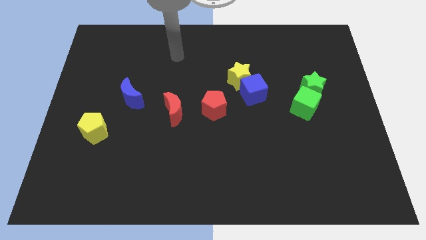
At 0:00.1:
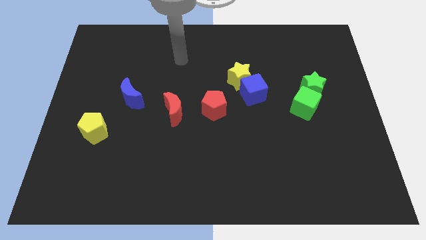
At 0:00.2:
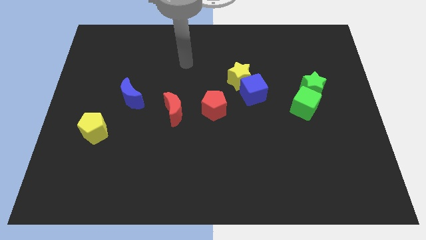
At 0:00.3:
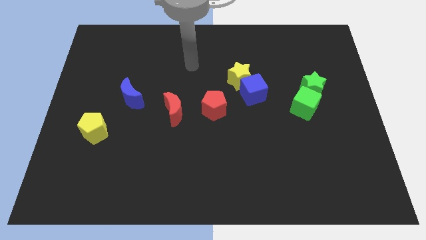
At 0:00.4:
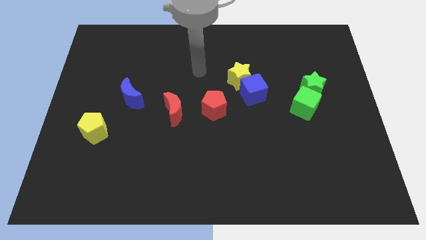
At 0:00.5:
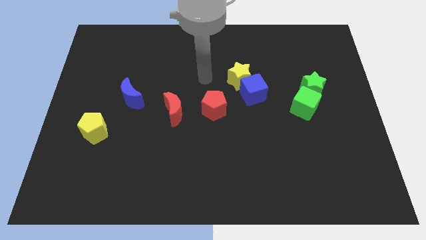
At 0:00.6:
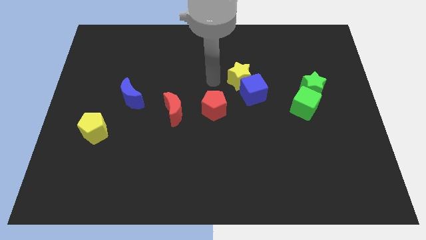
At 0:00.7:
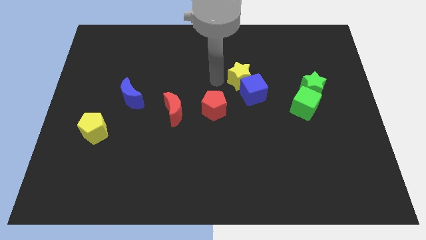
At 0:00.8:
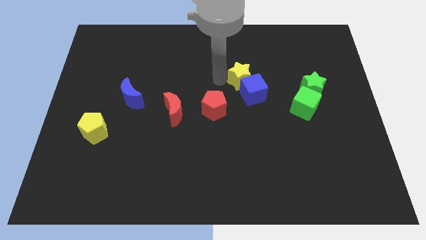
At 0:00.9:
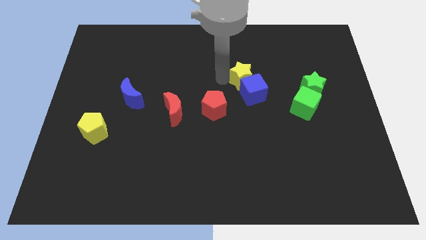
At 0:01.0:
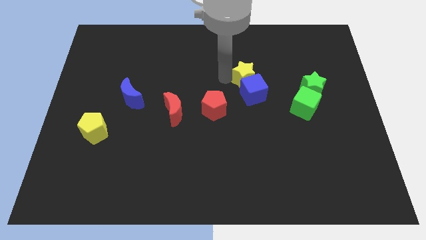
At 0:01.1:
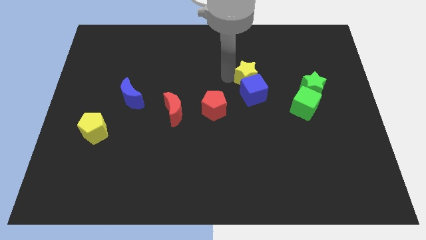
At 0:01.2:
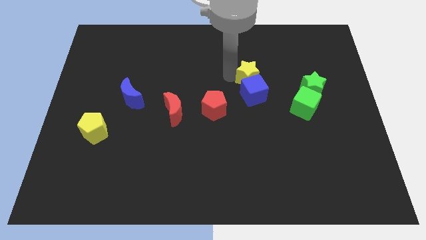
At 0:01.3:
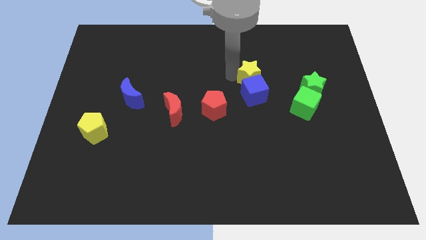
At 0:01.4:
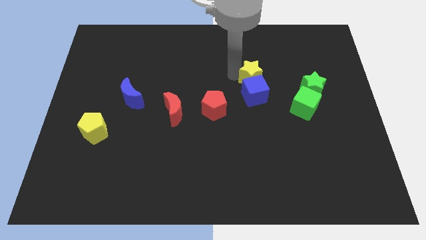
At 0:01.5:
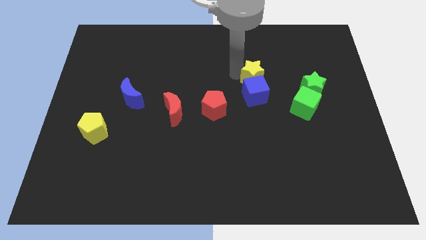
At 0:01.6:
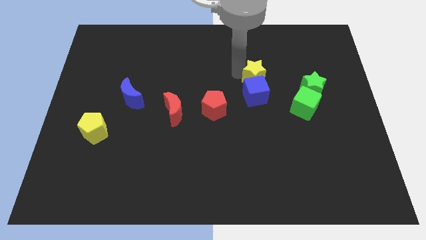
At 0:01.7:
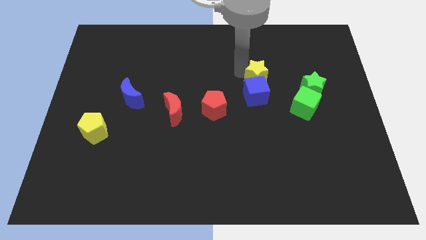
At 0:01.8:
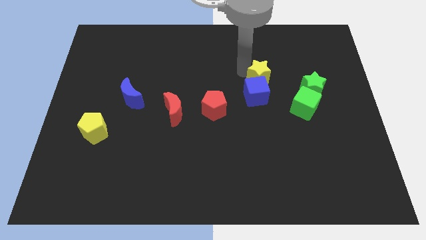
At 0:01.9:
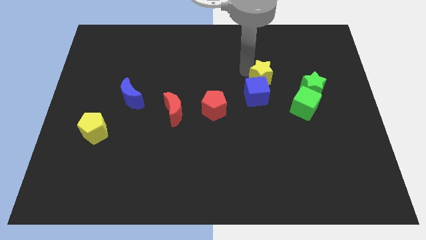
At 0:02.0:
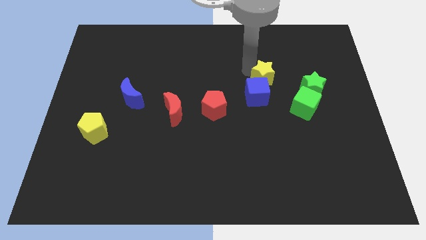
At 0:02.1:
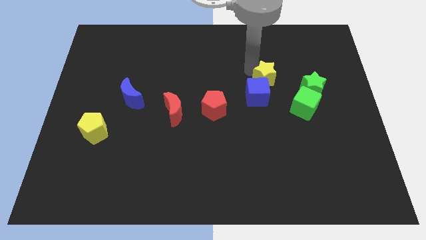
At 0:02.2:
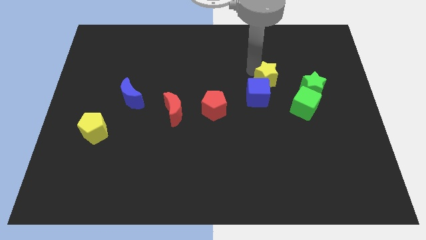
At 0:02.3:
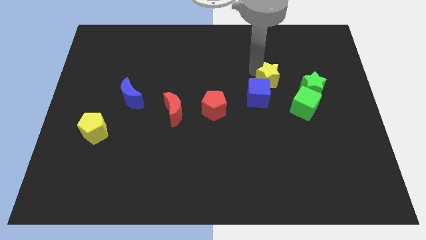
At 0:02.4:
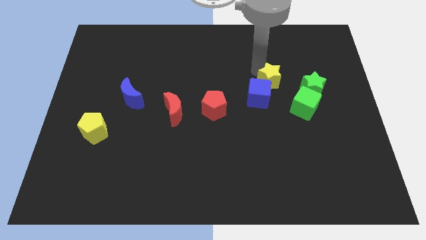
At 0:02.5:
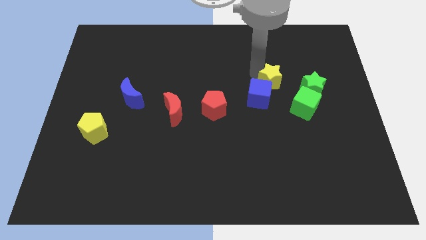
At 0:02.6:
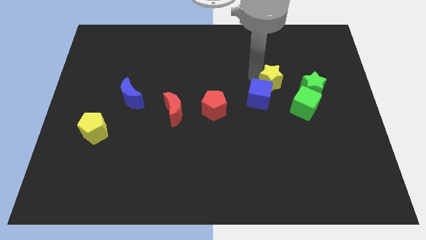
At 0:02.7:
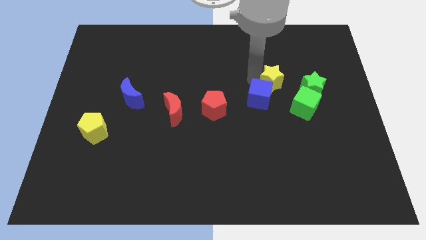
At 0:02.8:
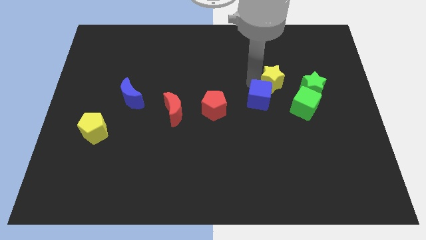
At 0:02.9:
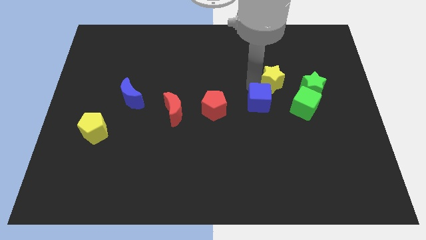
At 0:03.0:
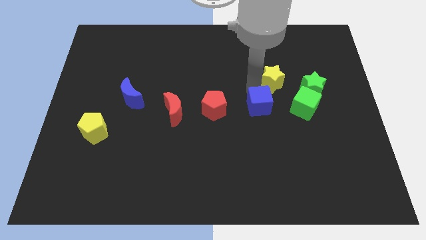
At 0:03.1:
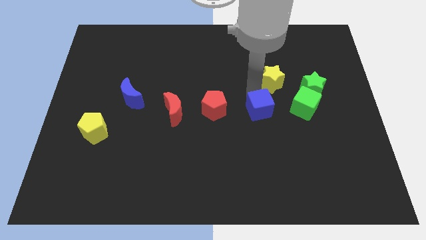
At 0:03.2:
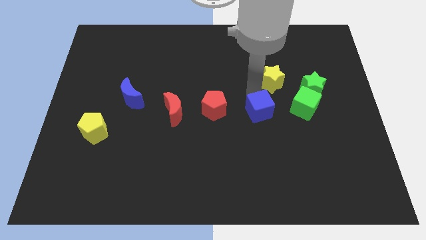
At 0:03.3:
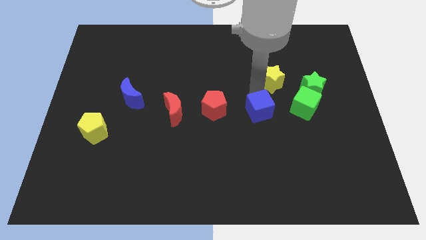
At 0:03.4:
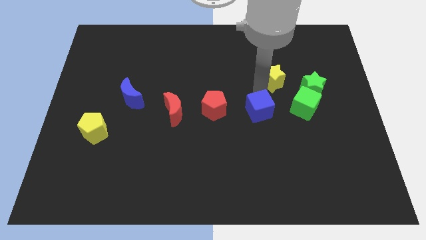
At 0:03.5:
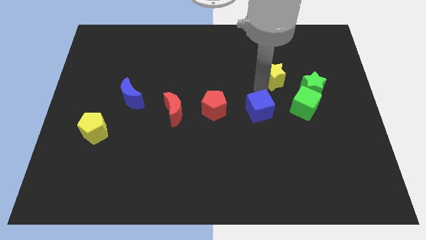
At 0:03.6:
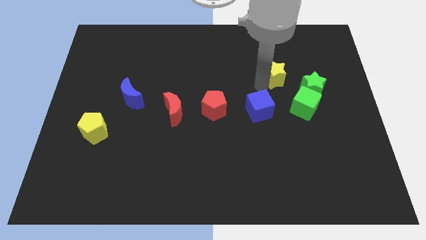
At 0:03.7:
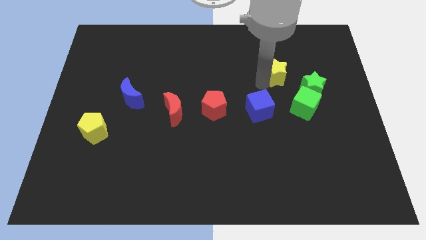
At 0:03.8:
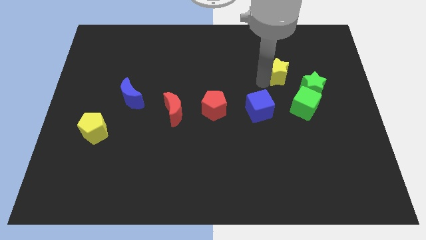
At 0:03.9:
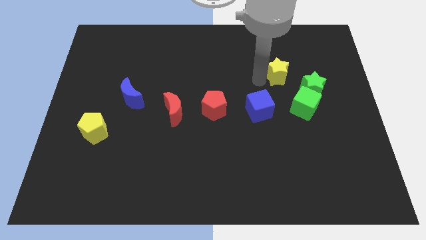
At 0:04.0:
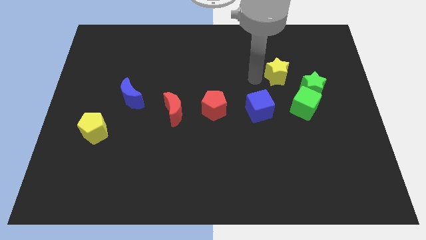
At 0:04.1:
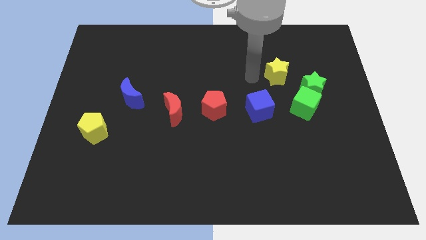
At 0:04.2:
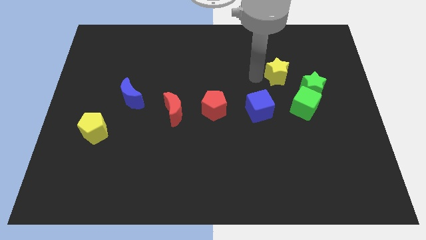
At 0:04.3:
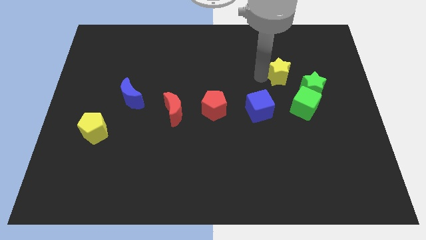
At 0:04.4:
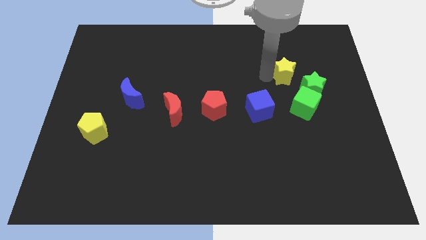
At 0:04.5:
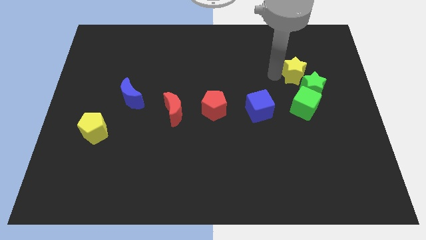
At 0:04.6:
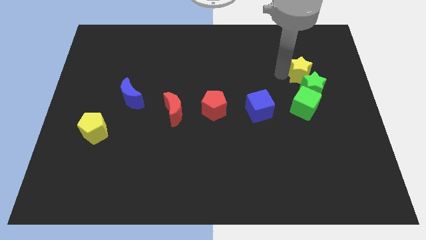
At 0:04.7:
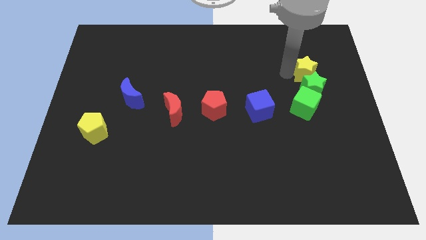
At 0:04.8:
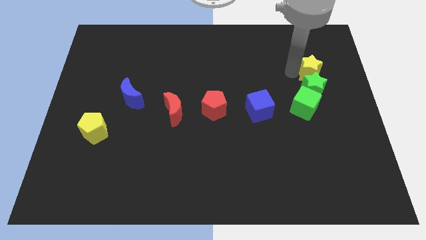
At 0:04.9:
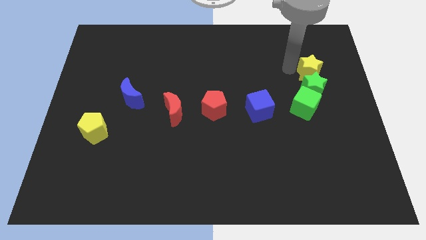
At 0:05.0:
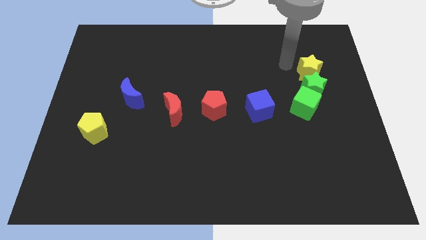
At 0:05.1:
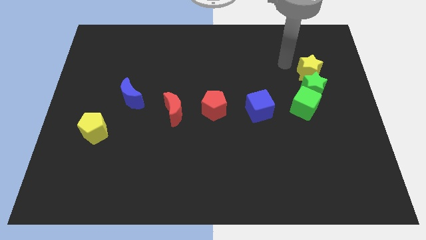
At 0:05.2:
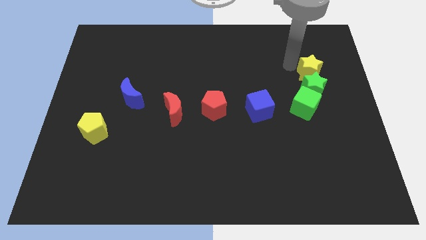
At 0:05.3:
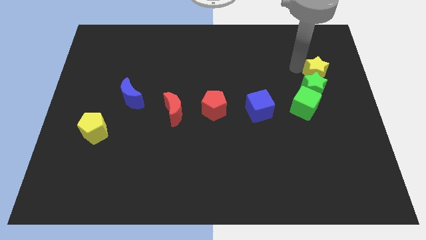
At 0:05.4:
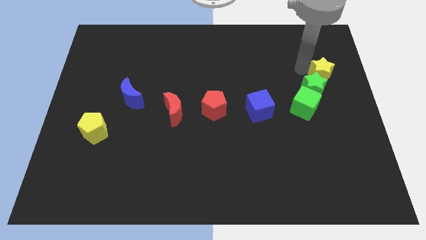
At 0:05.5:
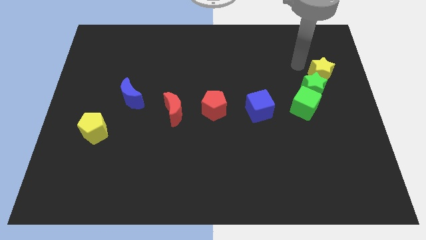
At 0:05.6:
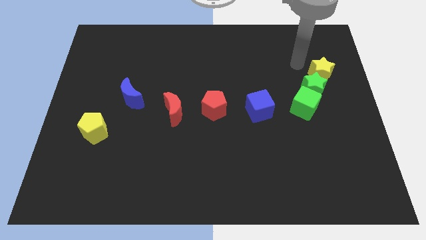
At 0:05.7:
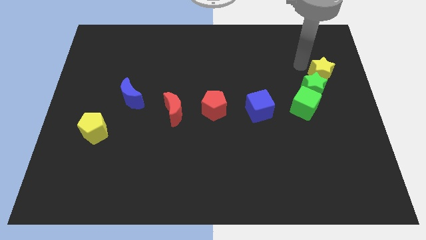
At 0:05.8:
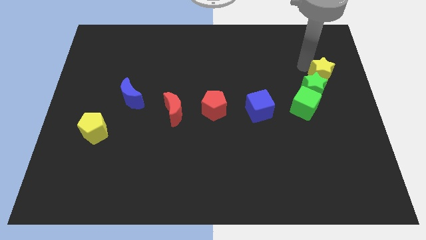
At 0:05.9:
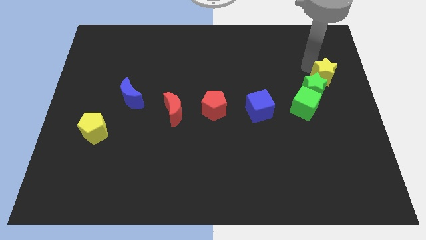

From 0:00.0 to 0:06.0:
move the yellow star to the center right
